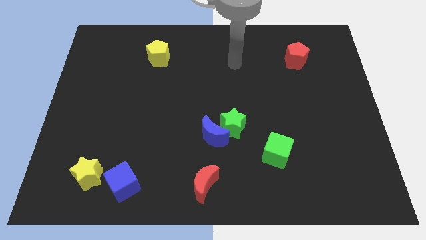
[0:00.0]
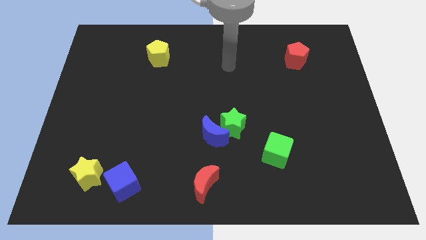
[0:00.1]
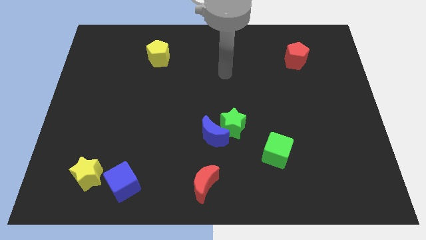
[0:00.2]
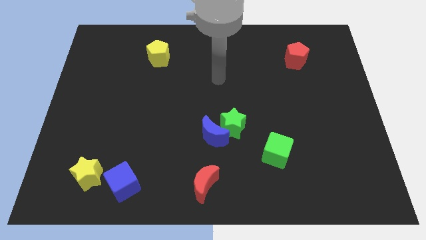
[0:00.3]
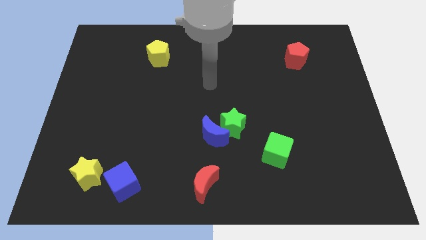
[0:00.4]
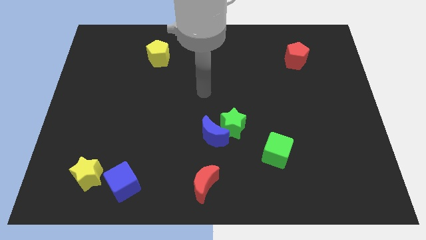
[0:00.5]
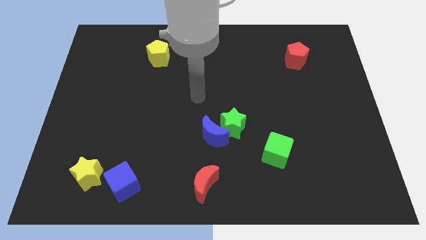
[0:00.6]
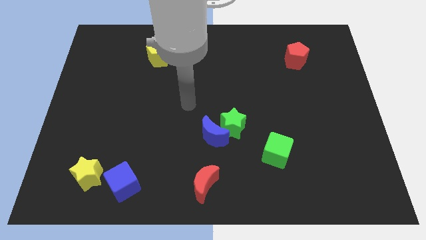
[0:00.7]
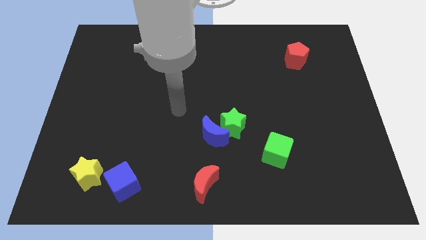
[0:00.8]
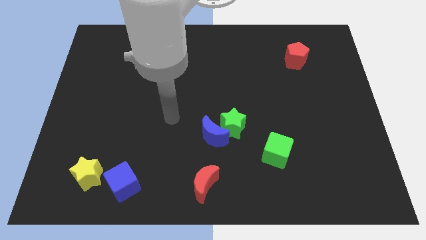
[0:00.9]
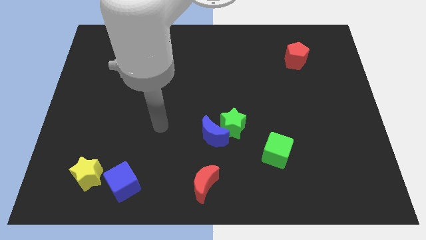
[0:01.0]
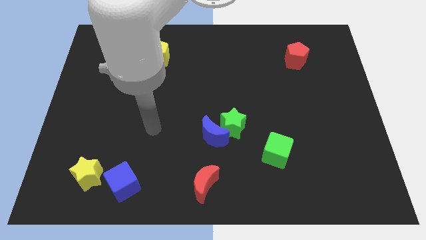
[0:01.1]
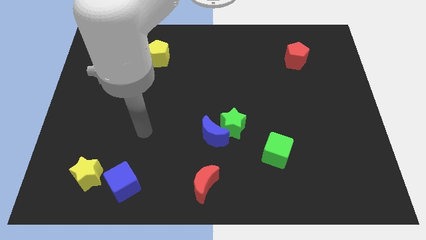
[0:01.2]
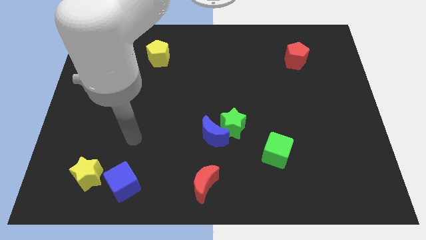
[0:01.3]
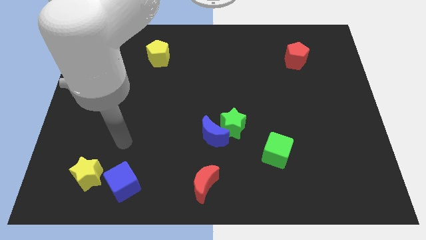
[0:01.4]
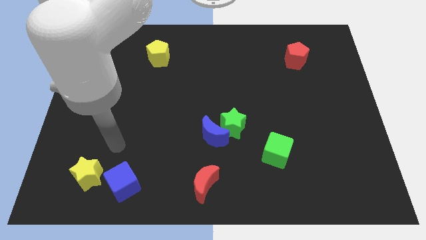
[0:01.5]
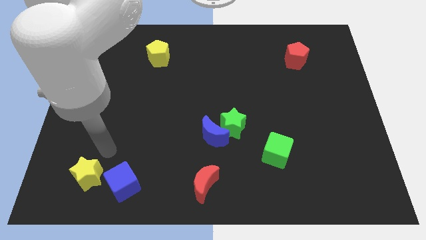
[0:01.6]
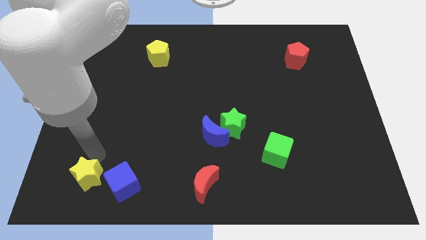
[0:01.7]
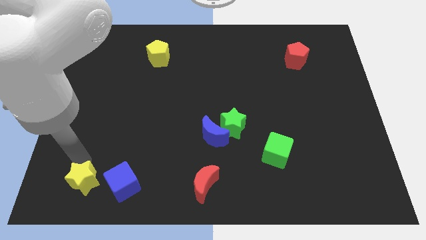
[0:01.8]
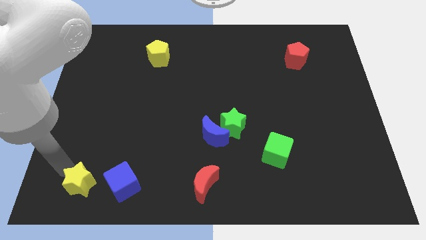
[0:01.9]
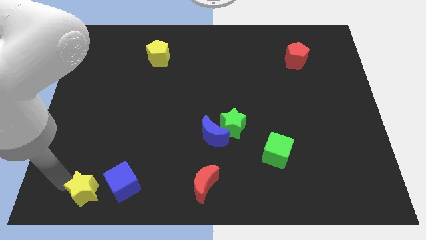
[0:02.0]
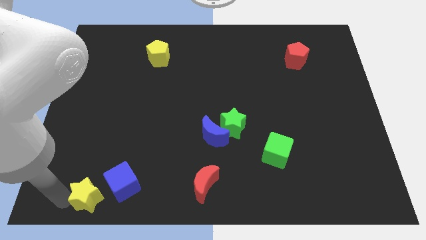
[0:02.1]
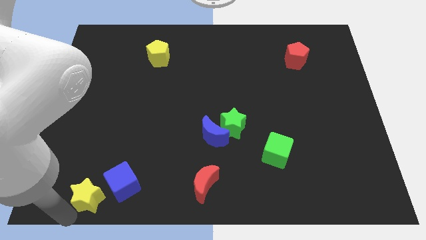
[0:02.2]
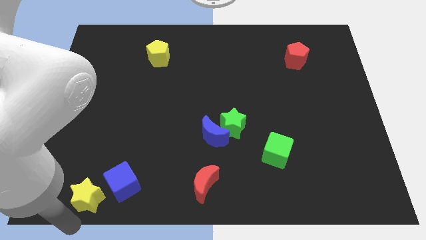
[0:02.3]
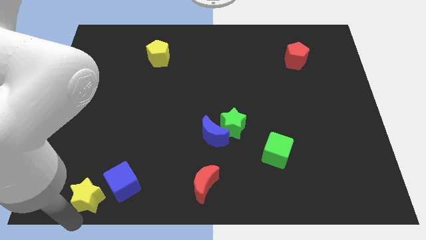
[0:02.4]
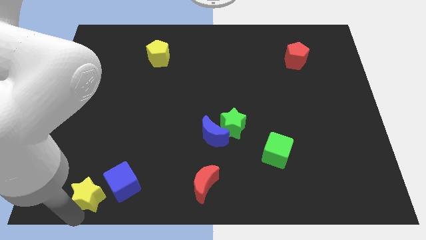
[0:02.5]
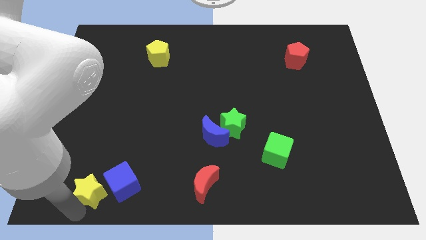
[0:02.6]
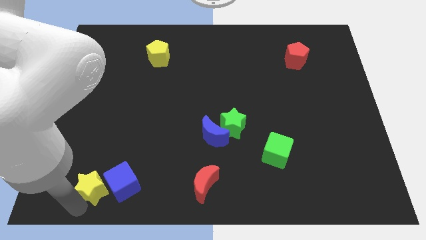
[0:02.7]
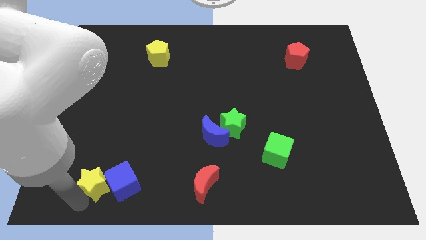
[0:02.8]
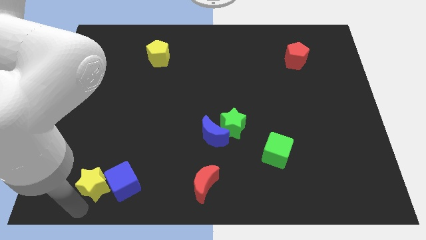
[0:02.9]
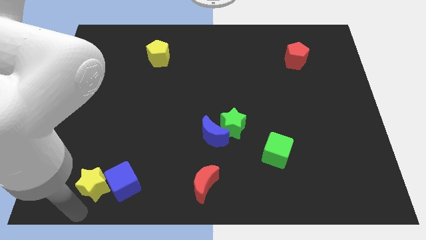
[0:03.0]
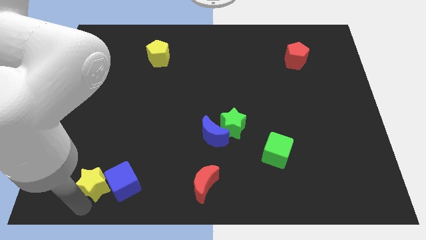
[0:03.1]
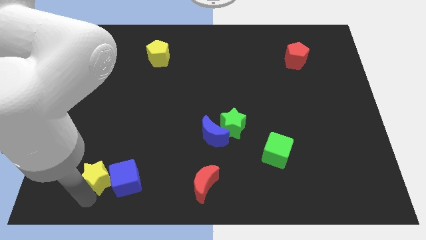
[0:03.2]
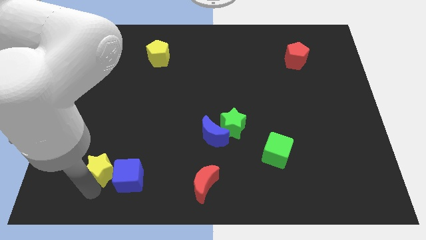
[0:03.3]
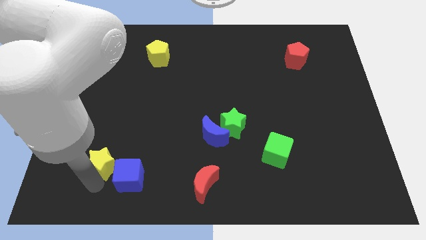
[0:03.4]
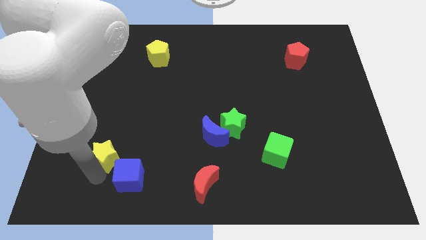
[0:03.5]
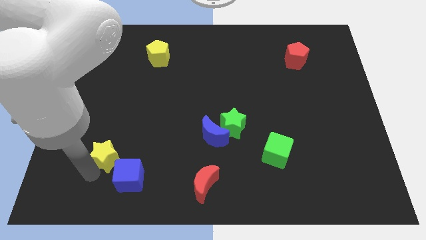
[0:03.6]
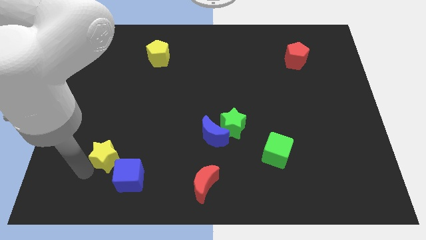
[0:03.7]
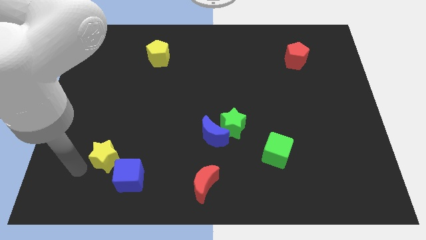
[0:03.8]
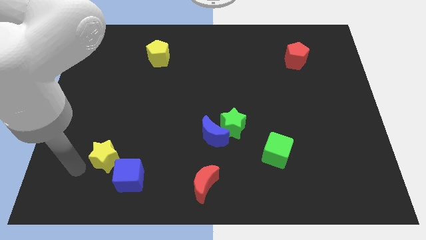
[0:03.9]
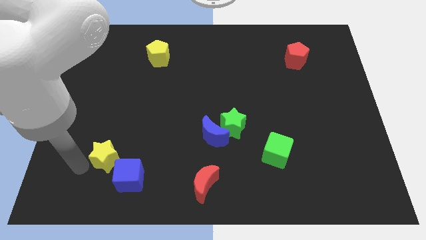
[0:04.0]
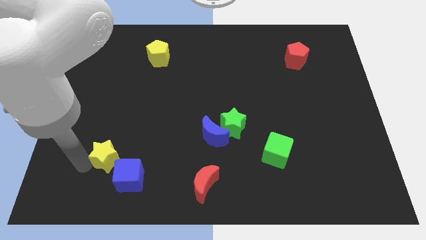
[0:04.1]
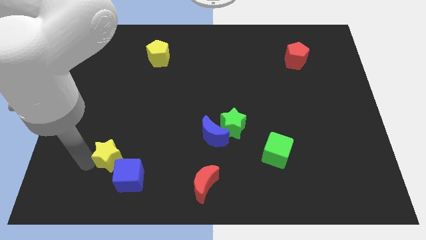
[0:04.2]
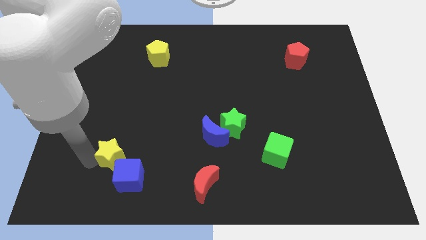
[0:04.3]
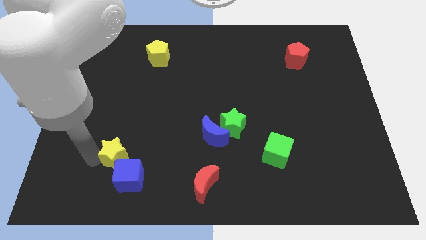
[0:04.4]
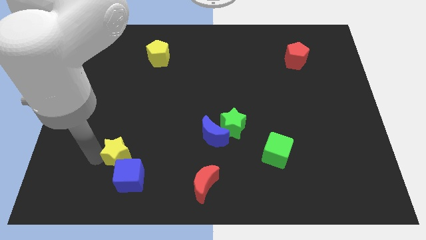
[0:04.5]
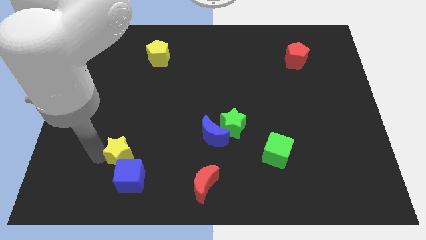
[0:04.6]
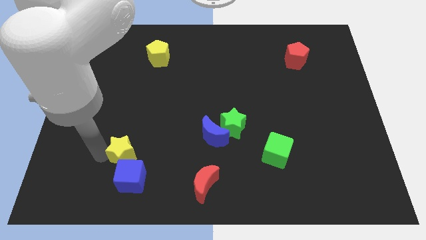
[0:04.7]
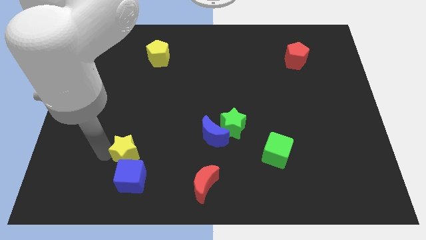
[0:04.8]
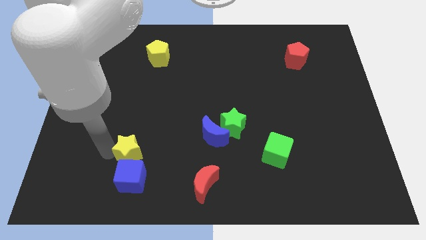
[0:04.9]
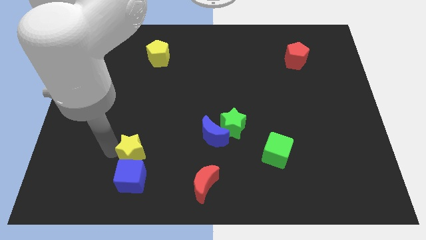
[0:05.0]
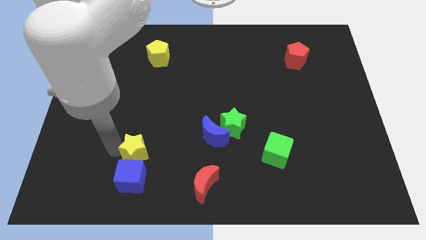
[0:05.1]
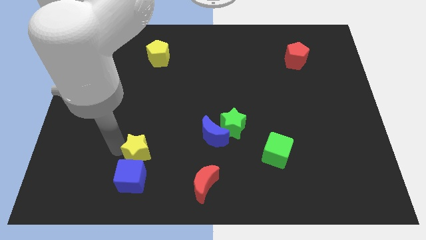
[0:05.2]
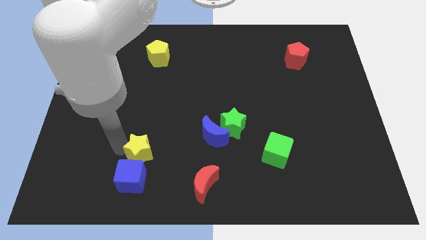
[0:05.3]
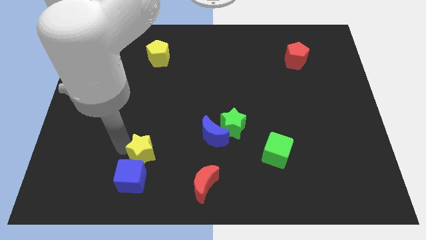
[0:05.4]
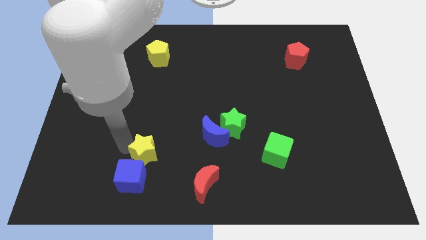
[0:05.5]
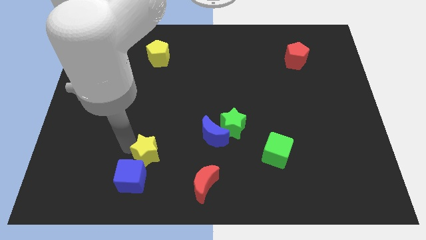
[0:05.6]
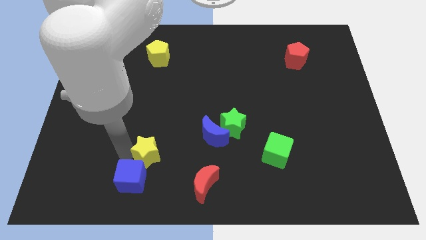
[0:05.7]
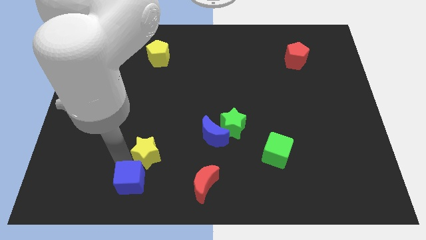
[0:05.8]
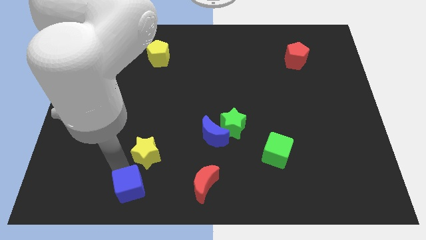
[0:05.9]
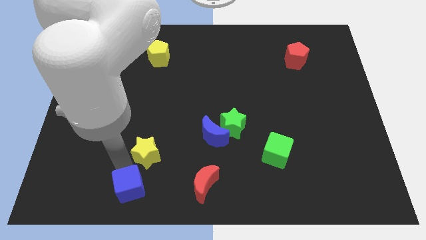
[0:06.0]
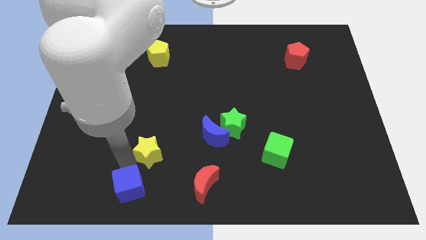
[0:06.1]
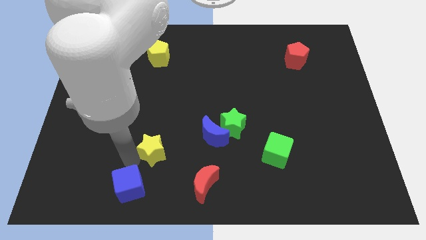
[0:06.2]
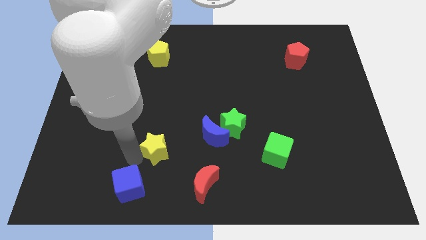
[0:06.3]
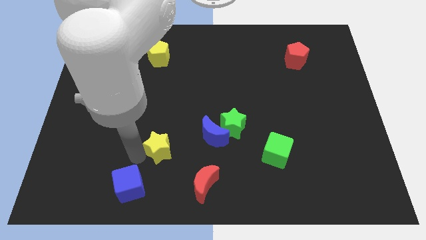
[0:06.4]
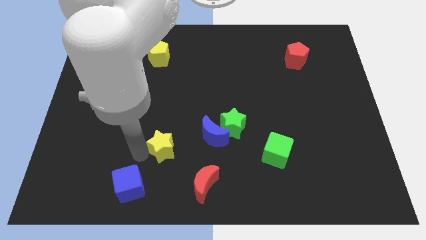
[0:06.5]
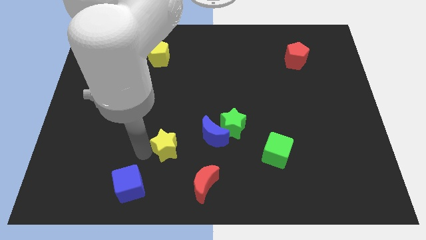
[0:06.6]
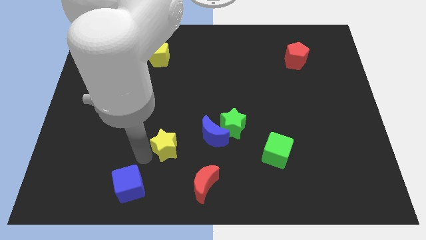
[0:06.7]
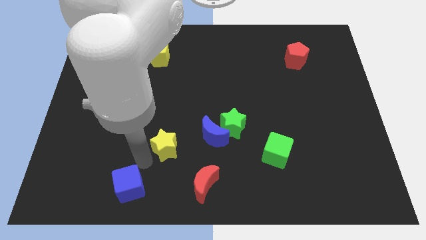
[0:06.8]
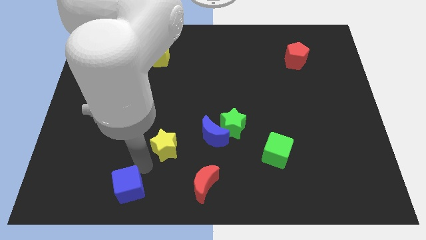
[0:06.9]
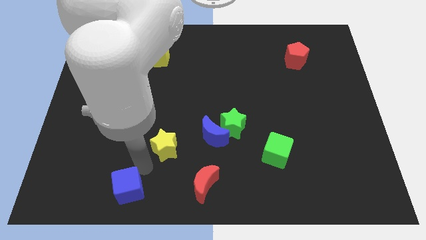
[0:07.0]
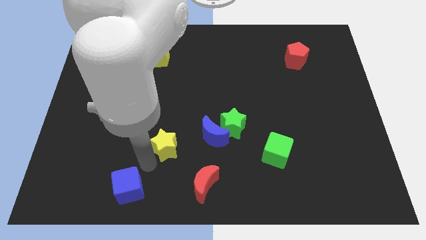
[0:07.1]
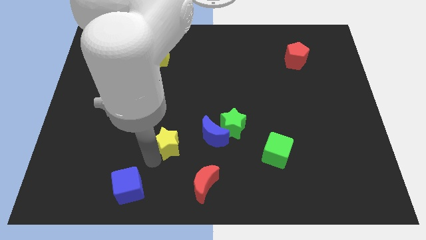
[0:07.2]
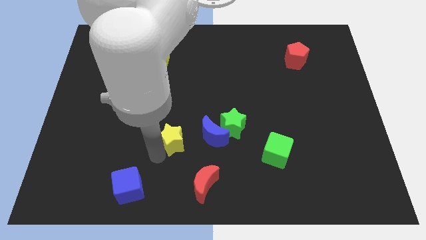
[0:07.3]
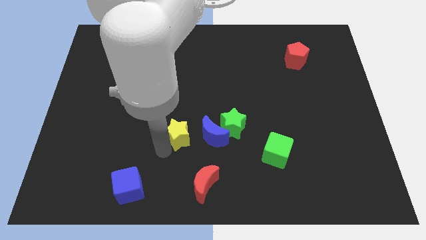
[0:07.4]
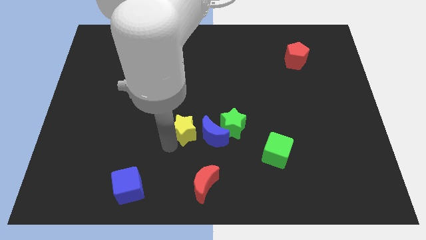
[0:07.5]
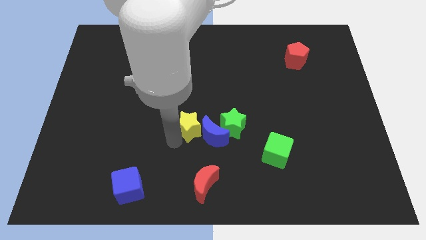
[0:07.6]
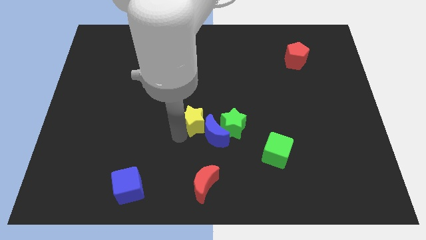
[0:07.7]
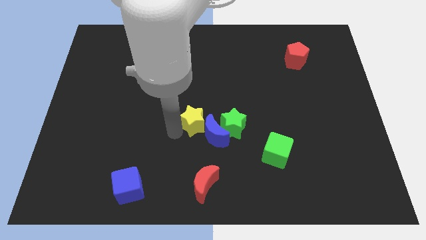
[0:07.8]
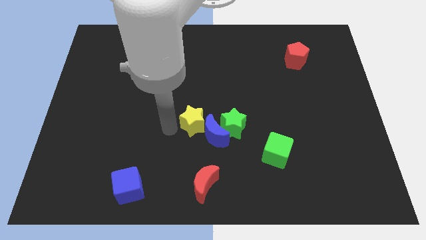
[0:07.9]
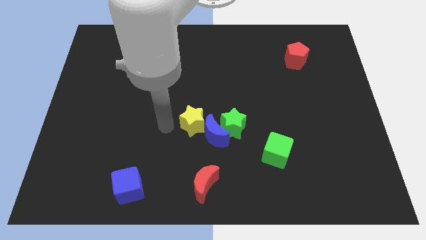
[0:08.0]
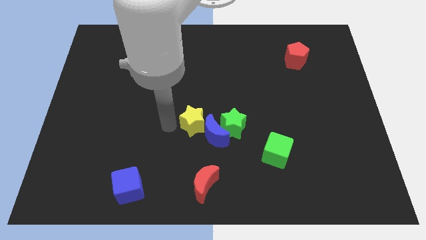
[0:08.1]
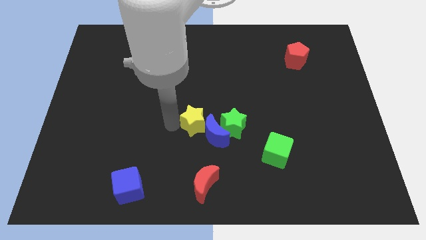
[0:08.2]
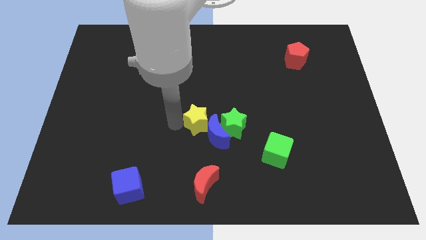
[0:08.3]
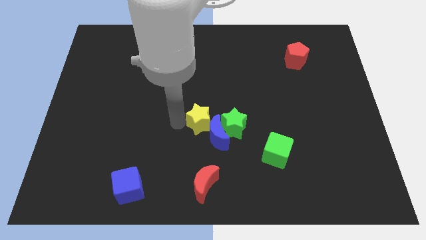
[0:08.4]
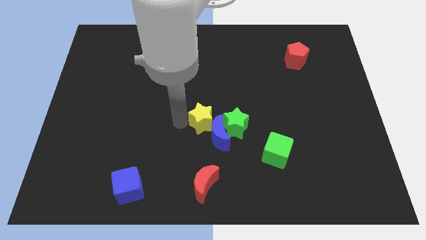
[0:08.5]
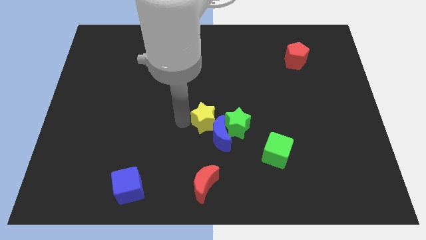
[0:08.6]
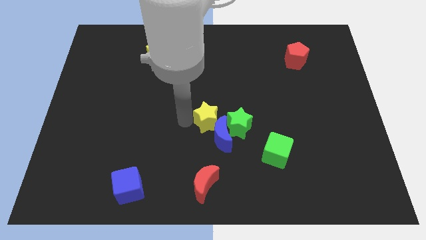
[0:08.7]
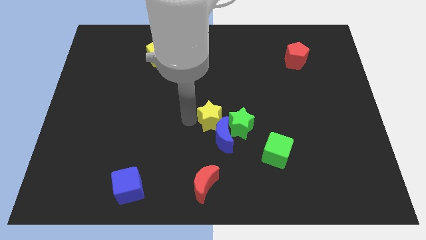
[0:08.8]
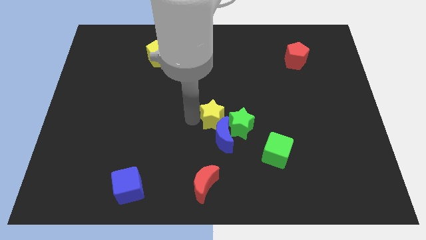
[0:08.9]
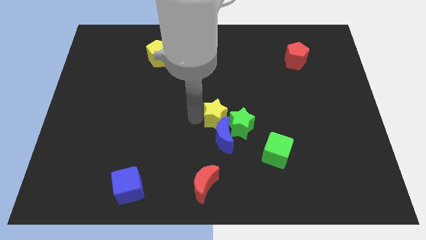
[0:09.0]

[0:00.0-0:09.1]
push the yellow star close to the green star
